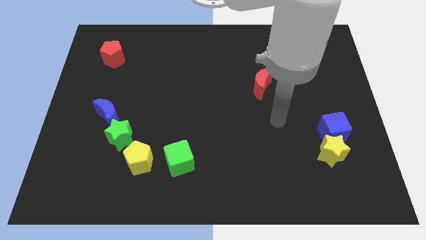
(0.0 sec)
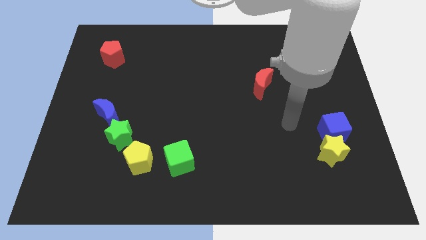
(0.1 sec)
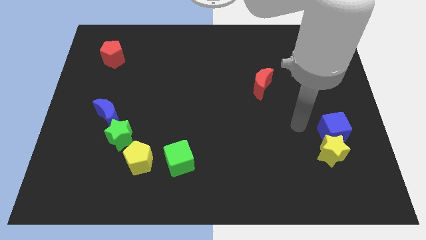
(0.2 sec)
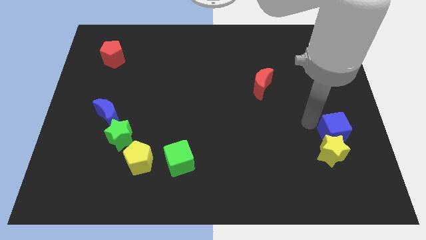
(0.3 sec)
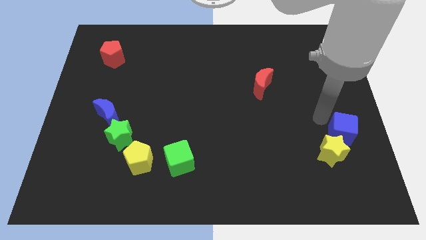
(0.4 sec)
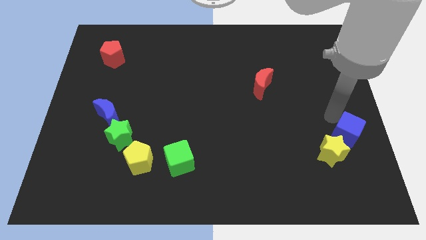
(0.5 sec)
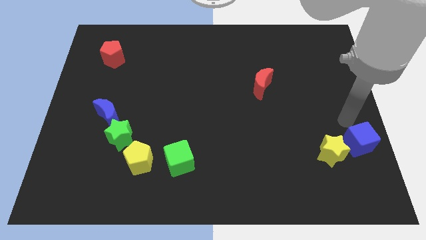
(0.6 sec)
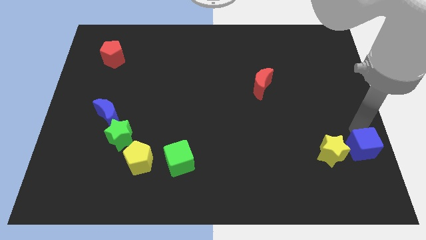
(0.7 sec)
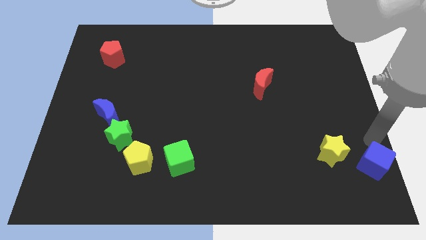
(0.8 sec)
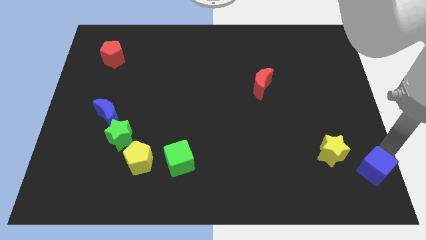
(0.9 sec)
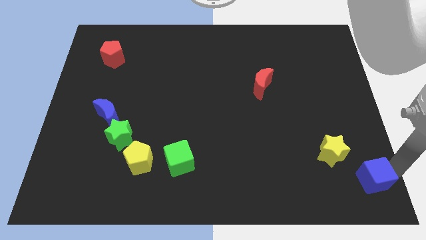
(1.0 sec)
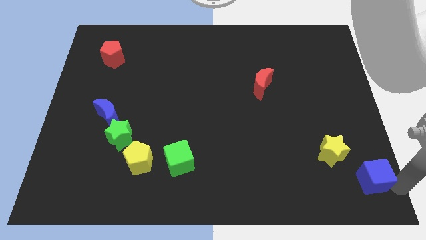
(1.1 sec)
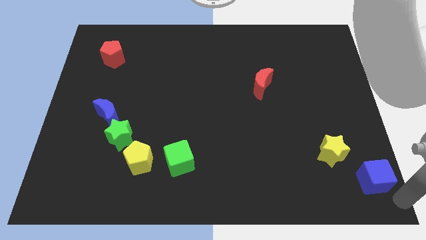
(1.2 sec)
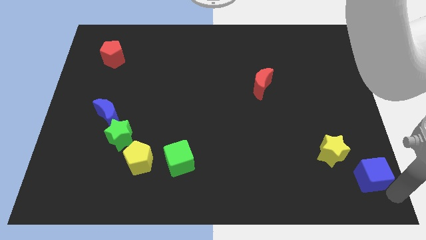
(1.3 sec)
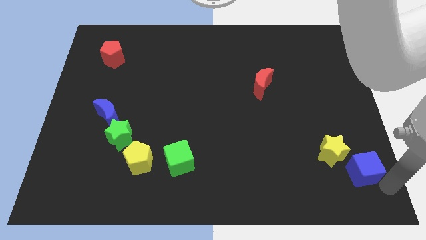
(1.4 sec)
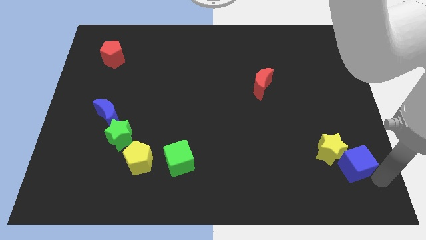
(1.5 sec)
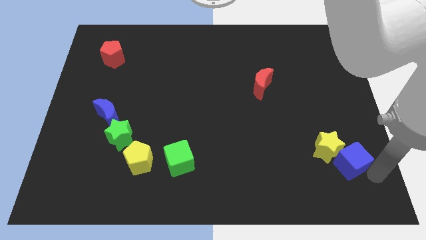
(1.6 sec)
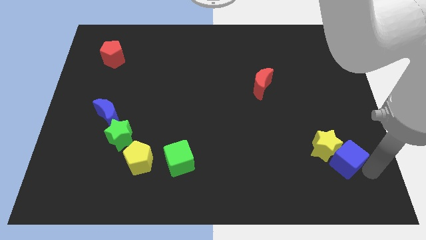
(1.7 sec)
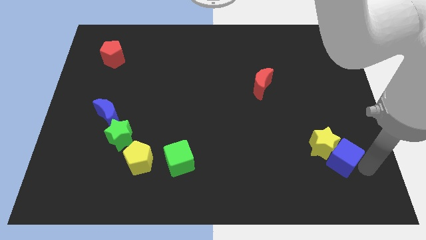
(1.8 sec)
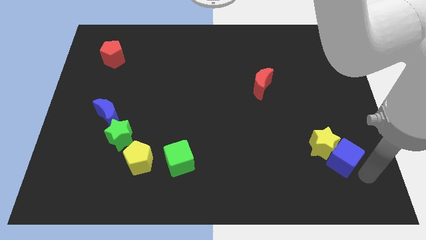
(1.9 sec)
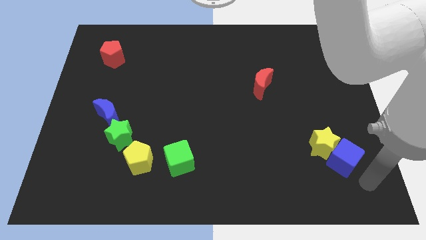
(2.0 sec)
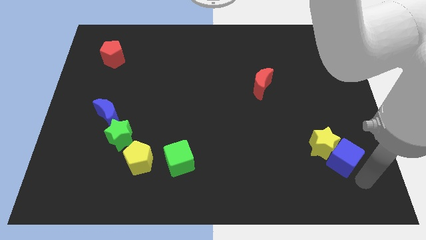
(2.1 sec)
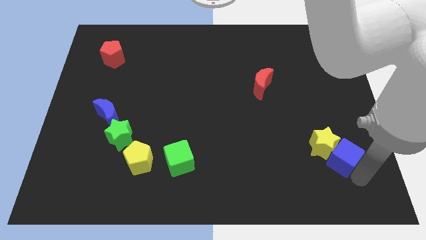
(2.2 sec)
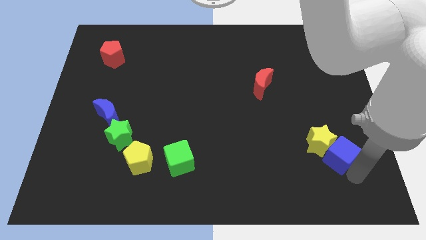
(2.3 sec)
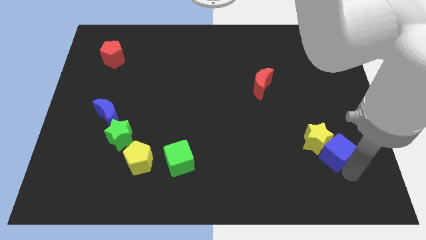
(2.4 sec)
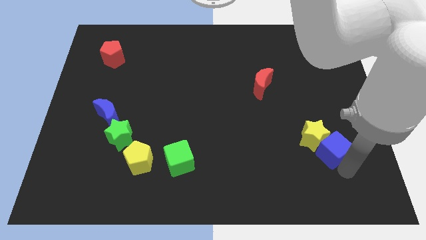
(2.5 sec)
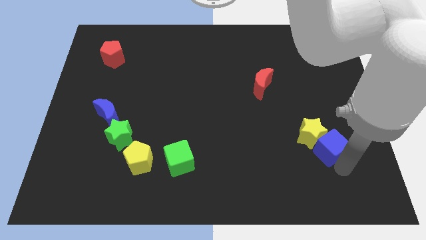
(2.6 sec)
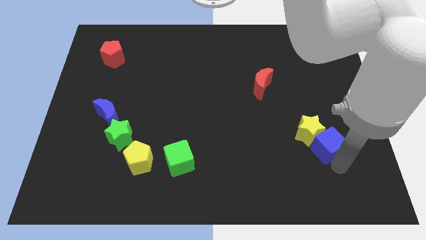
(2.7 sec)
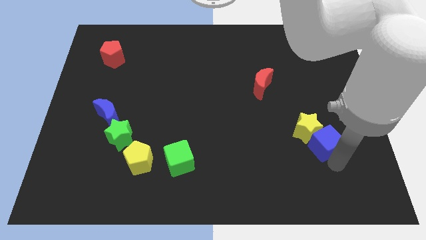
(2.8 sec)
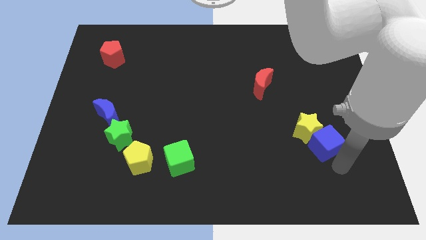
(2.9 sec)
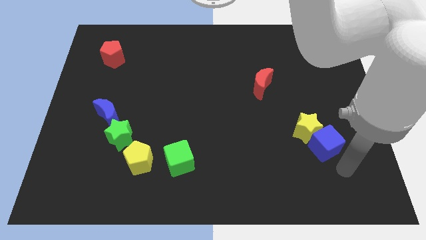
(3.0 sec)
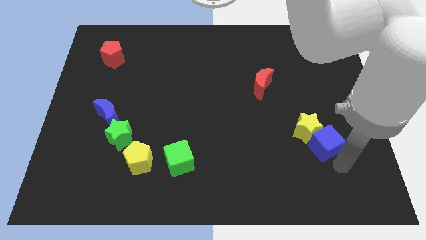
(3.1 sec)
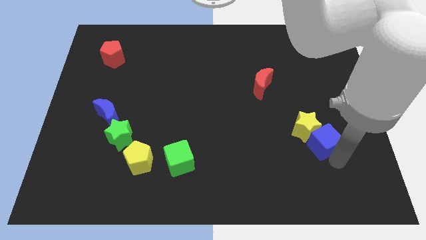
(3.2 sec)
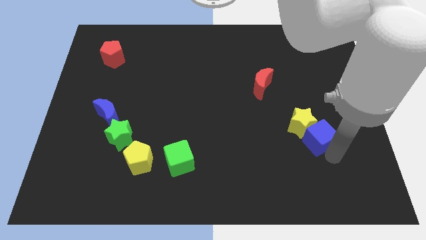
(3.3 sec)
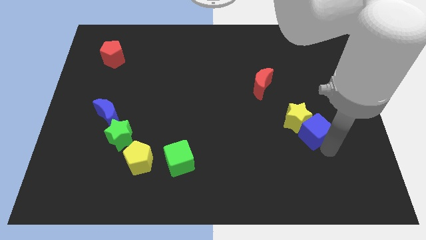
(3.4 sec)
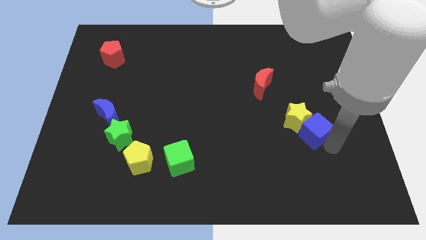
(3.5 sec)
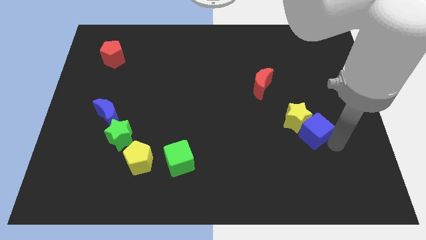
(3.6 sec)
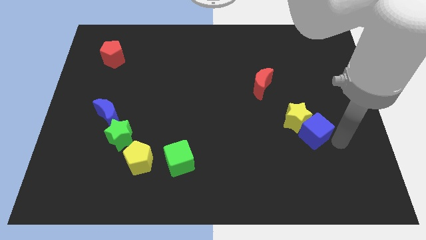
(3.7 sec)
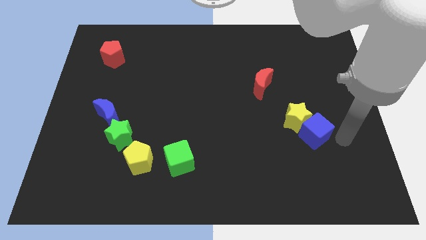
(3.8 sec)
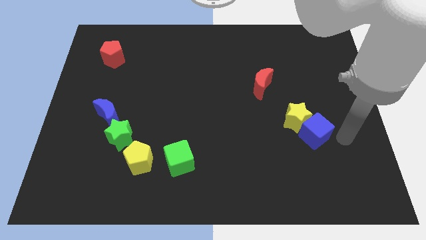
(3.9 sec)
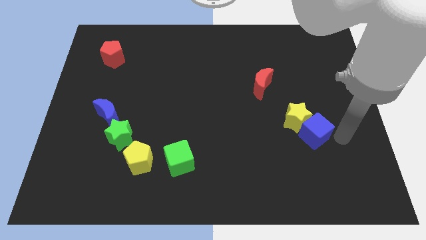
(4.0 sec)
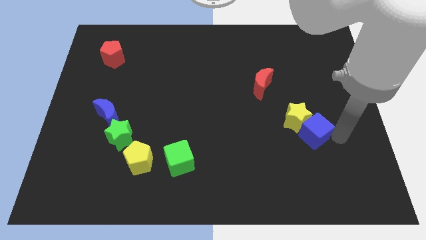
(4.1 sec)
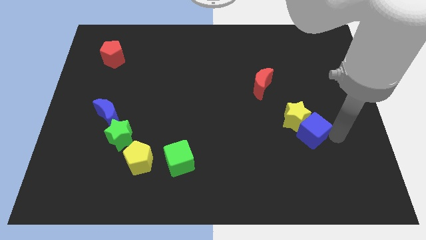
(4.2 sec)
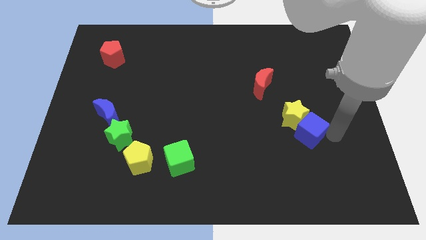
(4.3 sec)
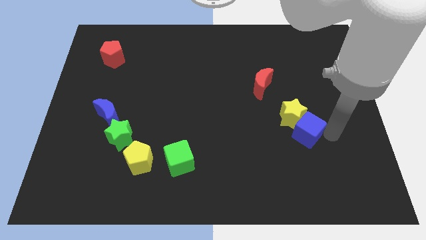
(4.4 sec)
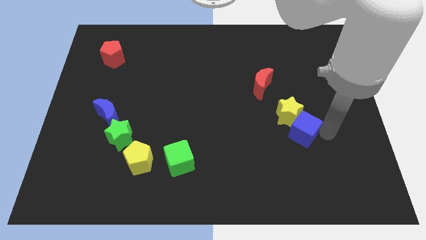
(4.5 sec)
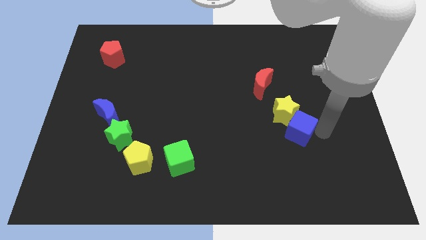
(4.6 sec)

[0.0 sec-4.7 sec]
push the blue cube a bit to the left

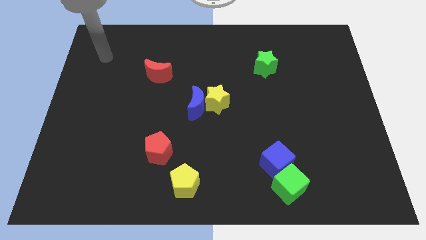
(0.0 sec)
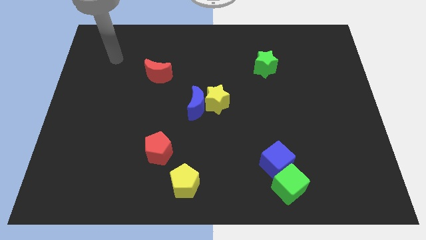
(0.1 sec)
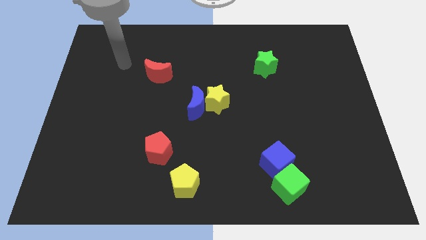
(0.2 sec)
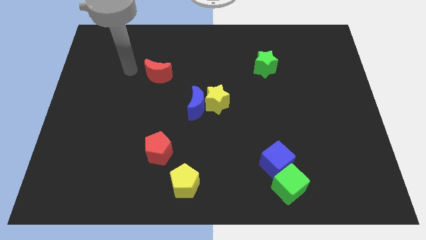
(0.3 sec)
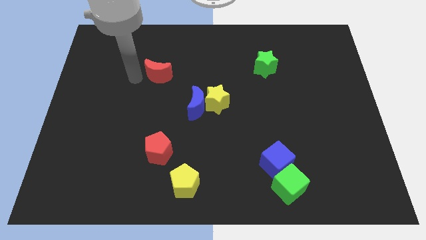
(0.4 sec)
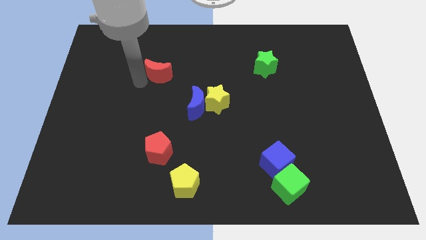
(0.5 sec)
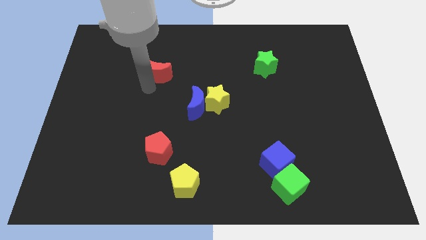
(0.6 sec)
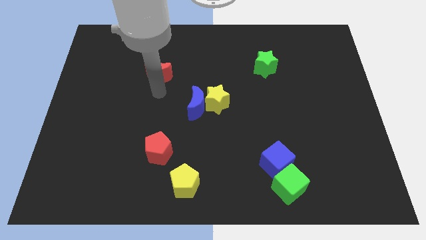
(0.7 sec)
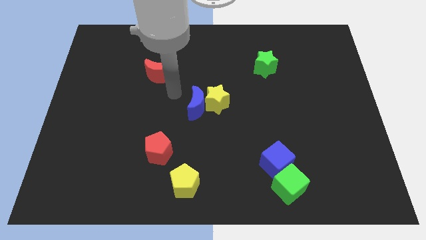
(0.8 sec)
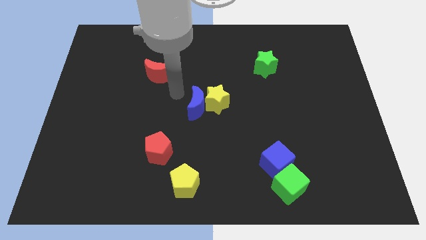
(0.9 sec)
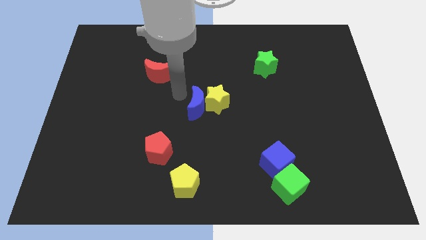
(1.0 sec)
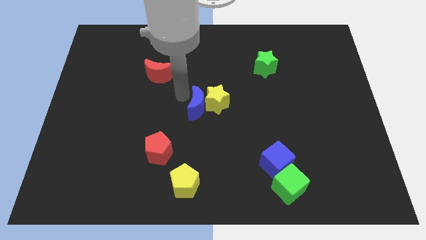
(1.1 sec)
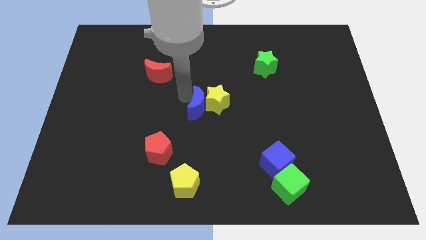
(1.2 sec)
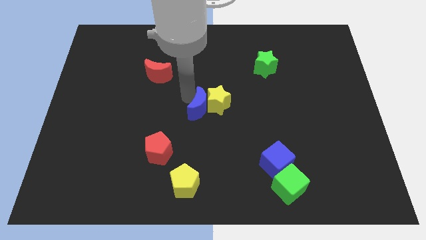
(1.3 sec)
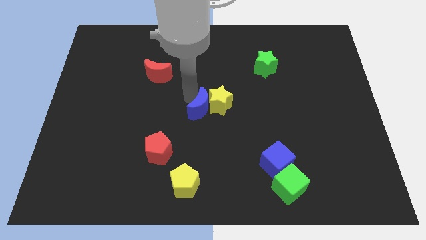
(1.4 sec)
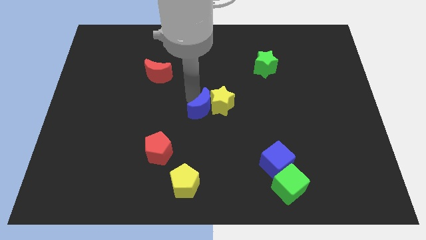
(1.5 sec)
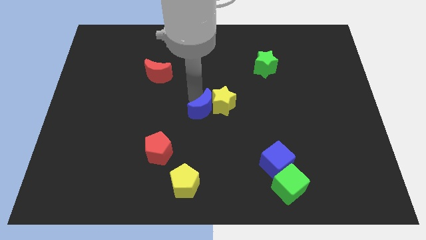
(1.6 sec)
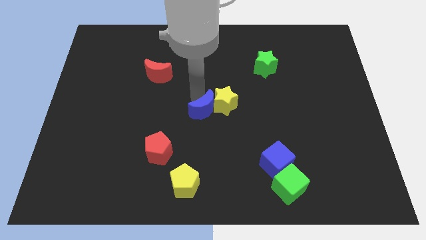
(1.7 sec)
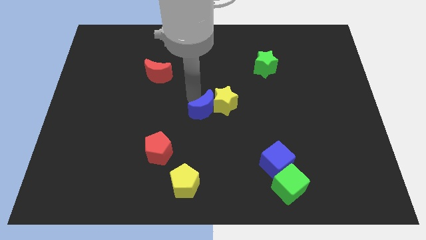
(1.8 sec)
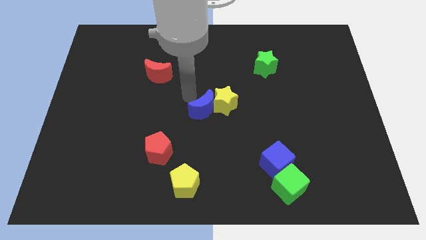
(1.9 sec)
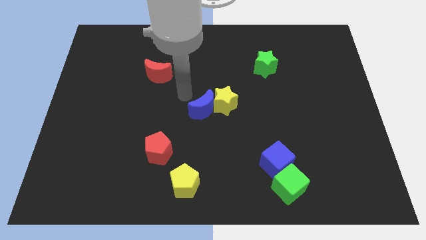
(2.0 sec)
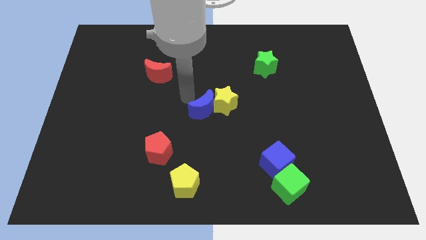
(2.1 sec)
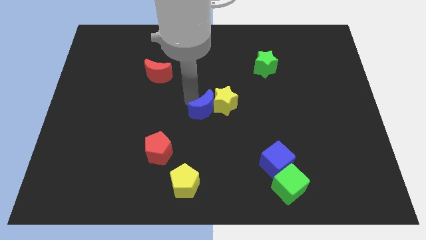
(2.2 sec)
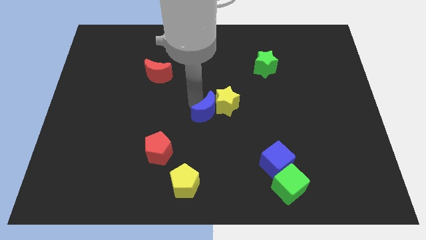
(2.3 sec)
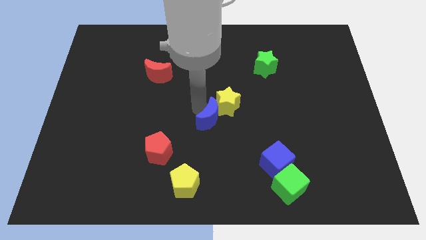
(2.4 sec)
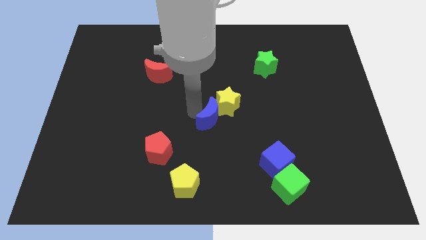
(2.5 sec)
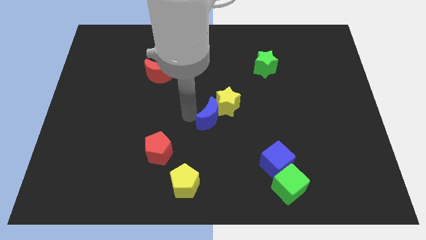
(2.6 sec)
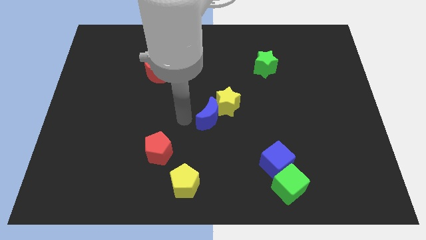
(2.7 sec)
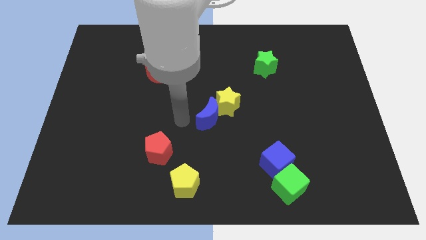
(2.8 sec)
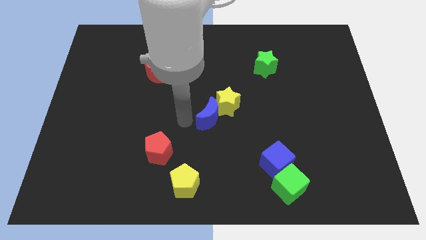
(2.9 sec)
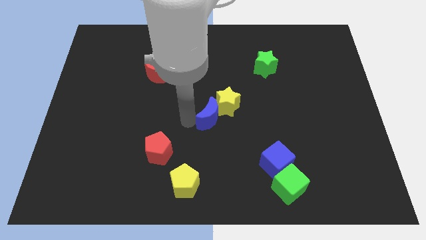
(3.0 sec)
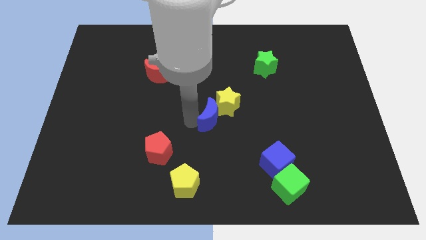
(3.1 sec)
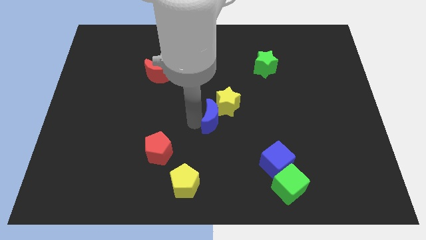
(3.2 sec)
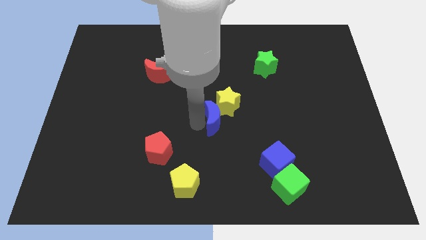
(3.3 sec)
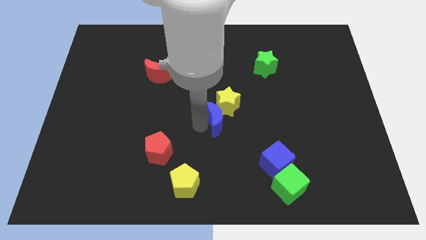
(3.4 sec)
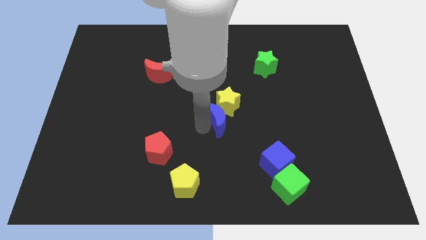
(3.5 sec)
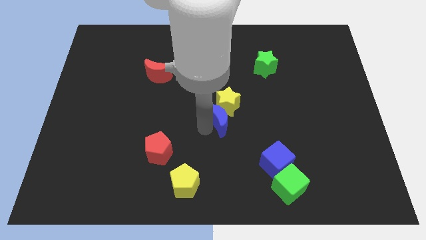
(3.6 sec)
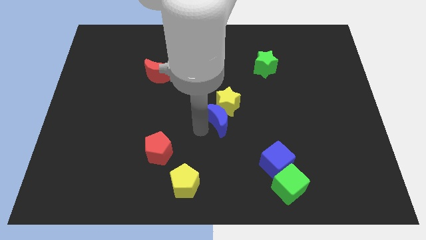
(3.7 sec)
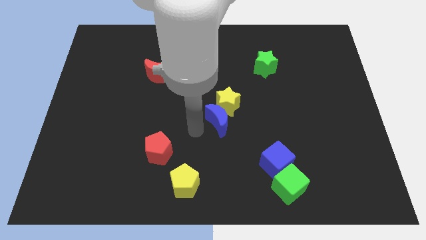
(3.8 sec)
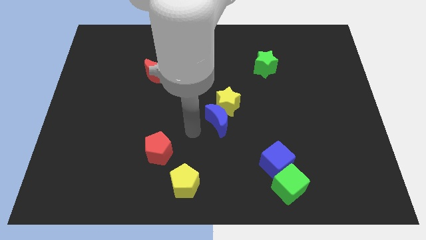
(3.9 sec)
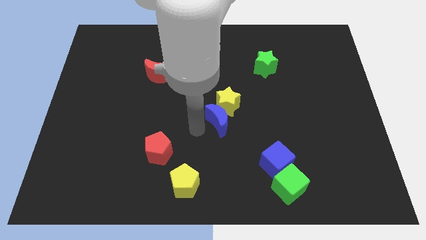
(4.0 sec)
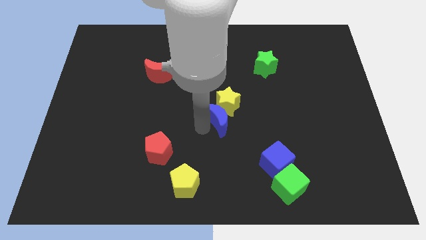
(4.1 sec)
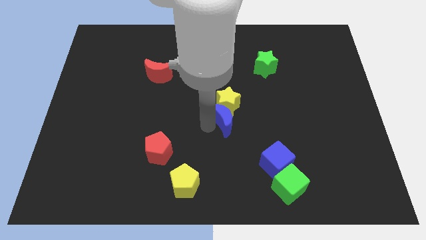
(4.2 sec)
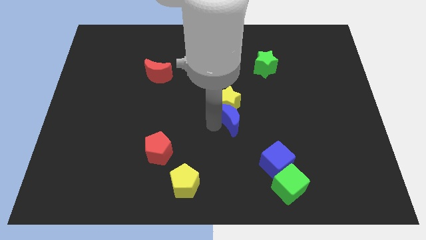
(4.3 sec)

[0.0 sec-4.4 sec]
slide the blue moon to the right a bit
